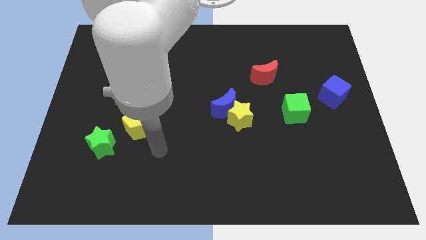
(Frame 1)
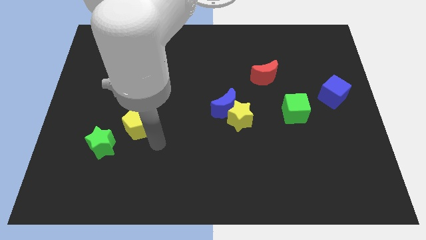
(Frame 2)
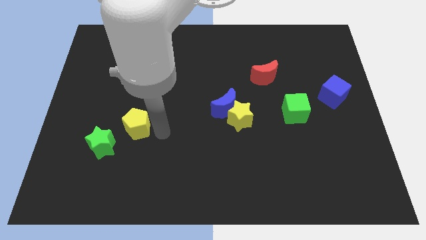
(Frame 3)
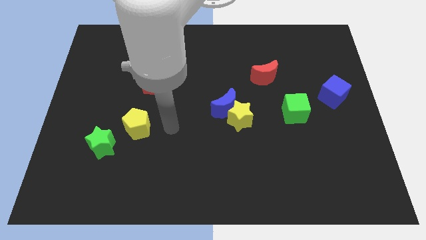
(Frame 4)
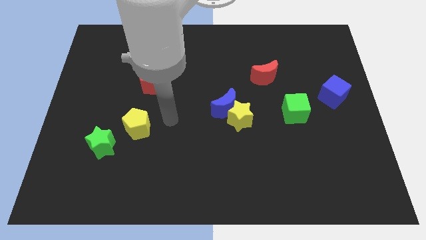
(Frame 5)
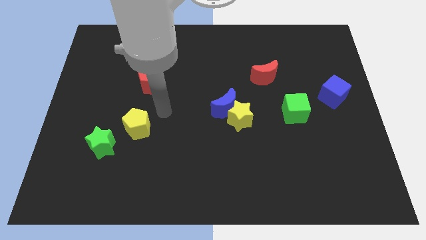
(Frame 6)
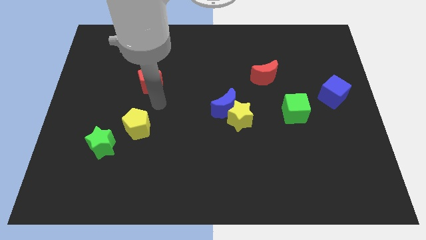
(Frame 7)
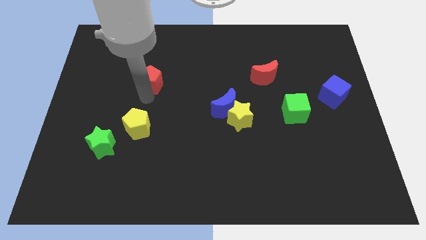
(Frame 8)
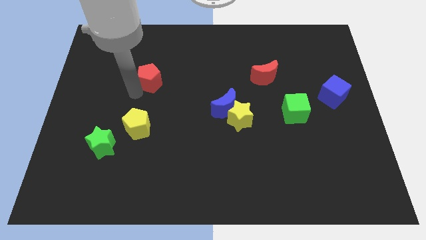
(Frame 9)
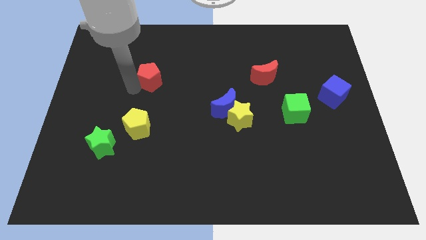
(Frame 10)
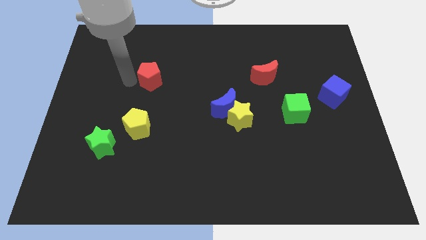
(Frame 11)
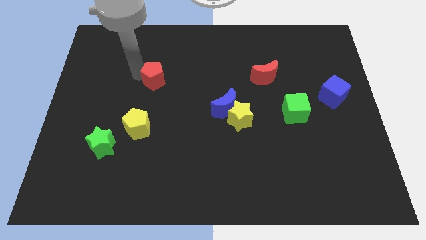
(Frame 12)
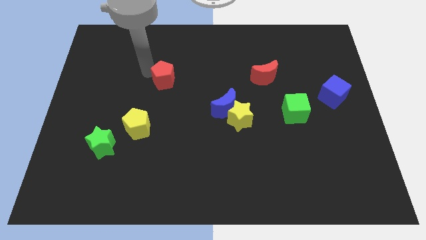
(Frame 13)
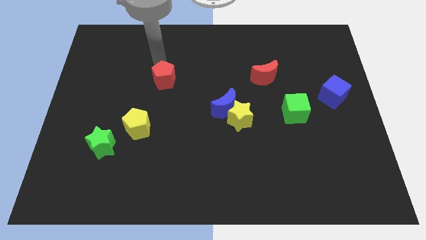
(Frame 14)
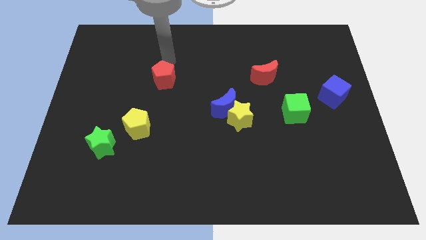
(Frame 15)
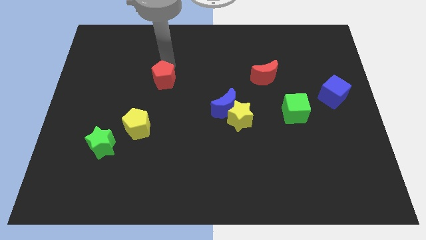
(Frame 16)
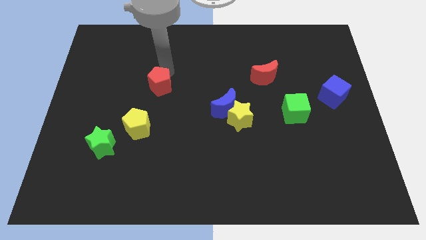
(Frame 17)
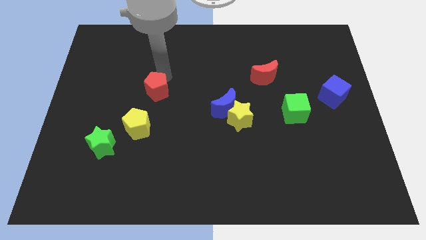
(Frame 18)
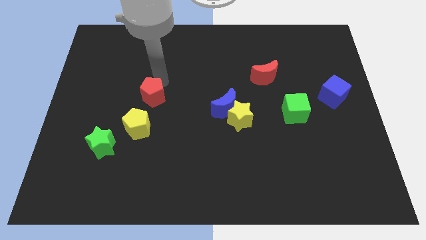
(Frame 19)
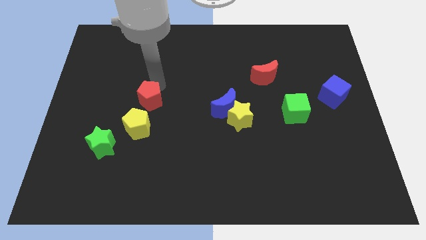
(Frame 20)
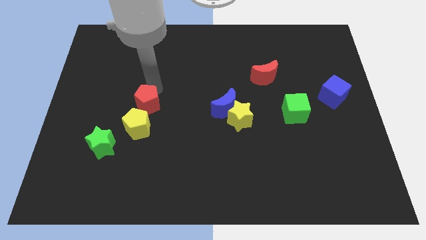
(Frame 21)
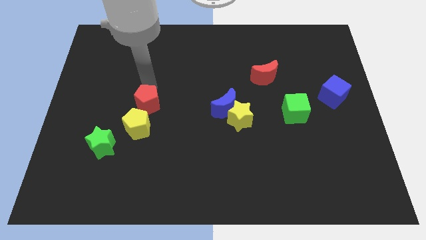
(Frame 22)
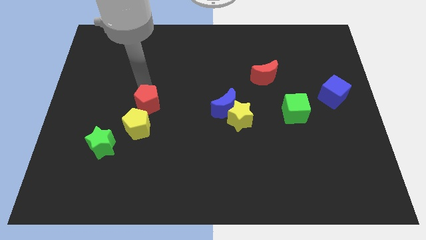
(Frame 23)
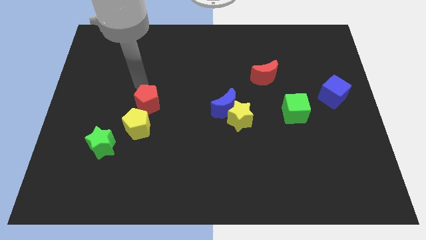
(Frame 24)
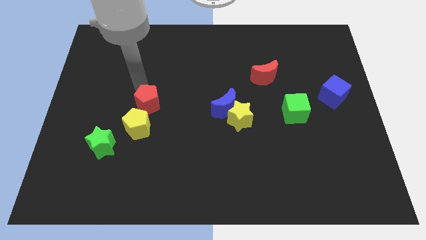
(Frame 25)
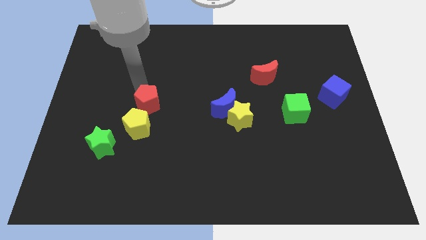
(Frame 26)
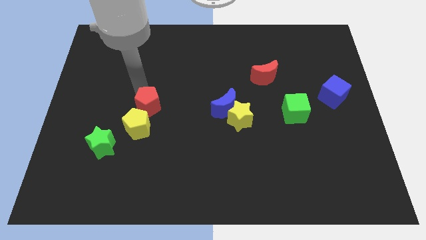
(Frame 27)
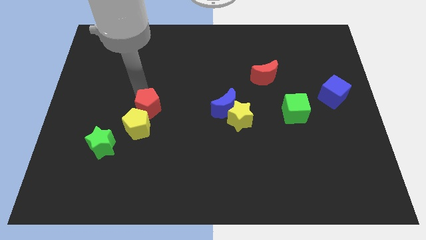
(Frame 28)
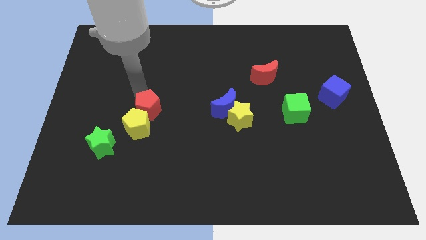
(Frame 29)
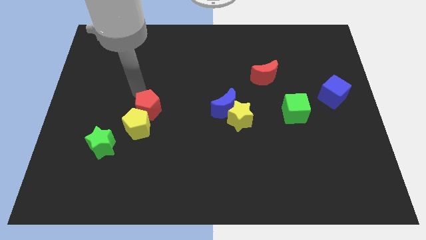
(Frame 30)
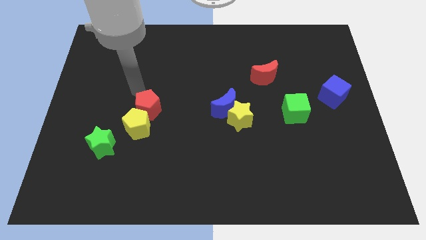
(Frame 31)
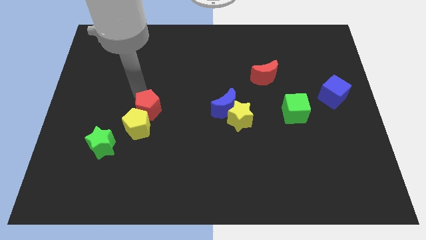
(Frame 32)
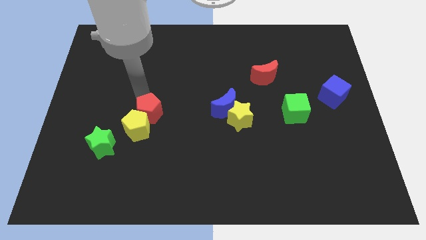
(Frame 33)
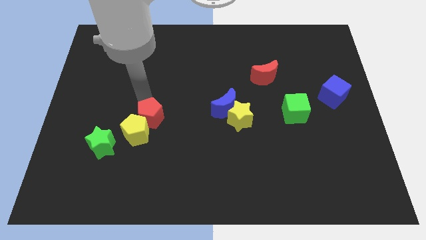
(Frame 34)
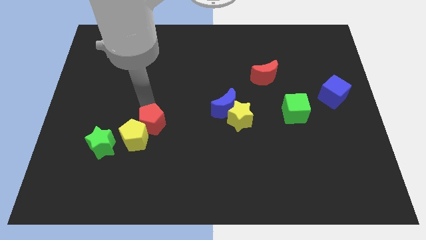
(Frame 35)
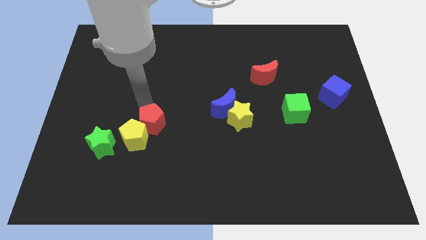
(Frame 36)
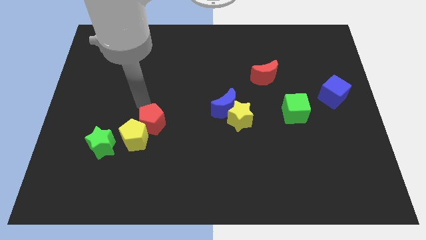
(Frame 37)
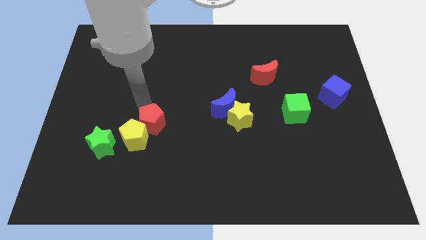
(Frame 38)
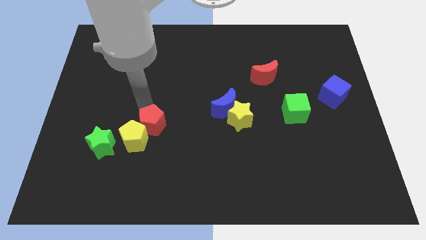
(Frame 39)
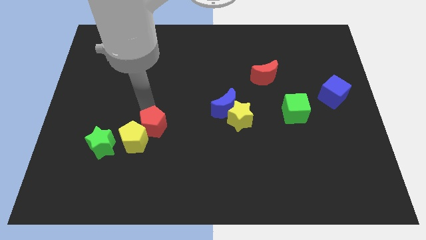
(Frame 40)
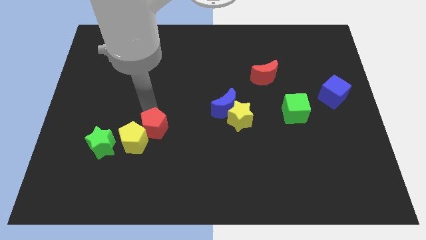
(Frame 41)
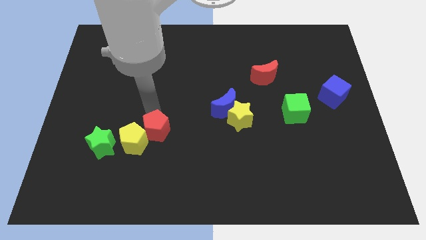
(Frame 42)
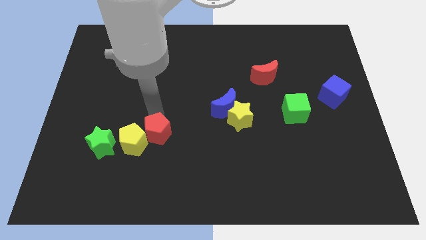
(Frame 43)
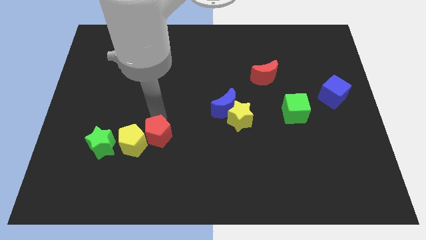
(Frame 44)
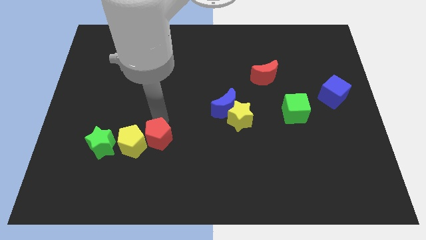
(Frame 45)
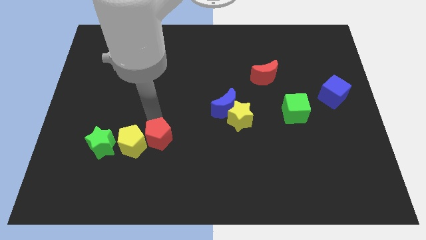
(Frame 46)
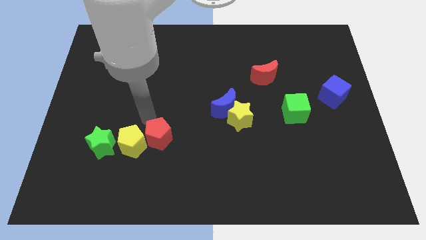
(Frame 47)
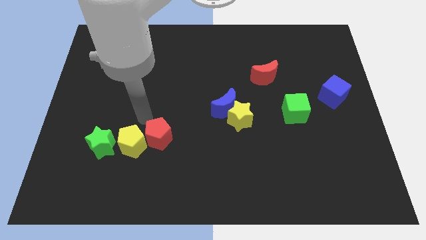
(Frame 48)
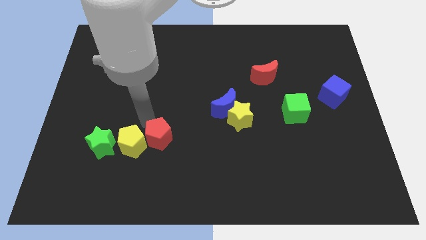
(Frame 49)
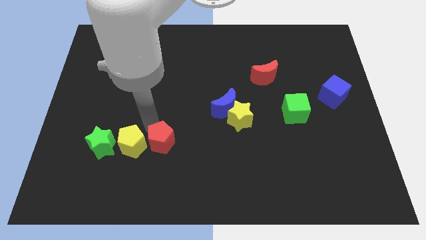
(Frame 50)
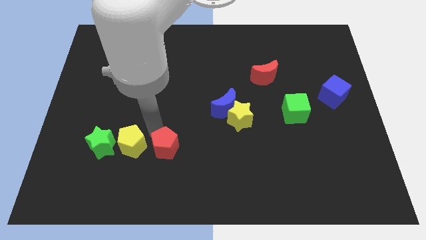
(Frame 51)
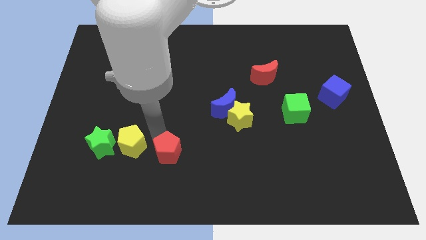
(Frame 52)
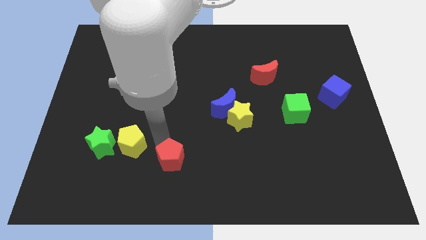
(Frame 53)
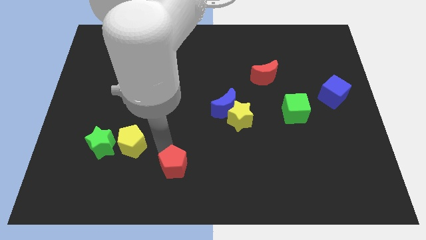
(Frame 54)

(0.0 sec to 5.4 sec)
move the red pentagon to the bottom side

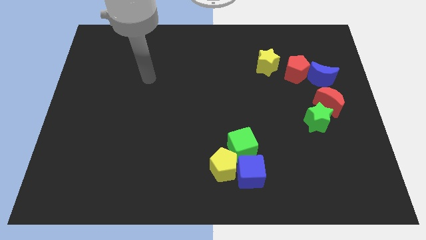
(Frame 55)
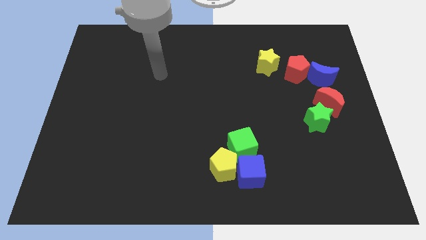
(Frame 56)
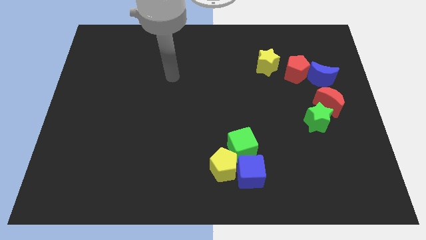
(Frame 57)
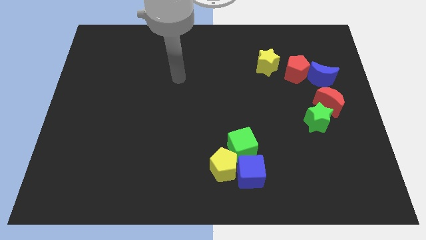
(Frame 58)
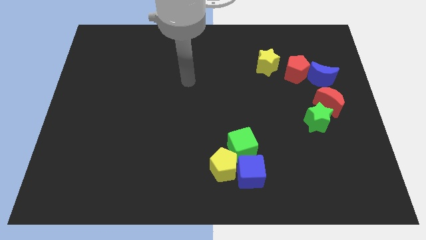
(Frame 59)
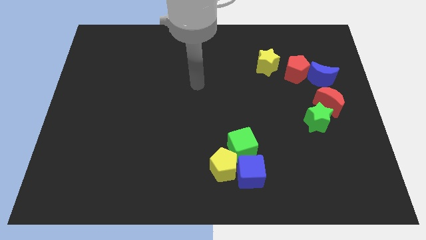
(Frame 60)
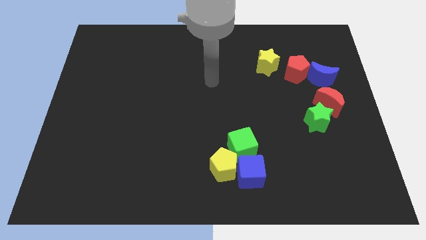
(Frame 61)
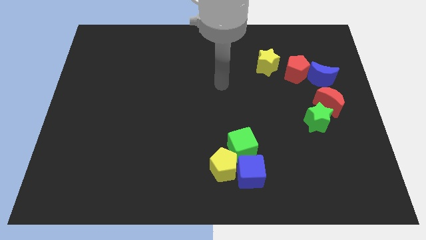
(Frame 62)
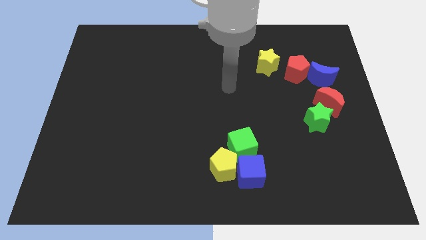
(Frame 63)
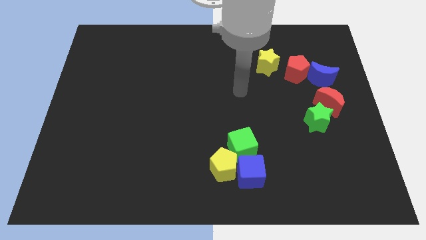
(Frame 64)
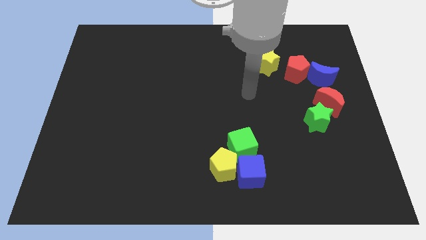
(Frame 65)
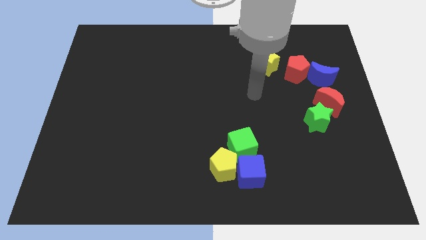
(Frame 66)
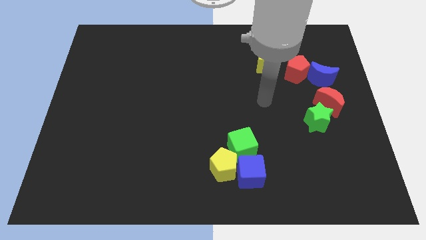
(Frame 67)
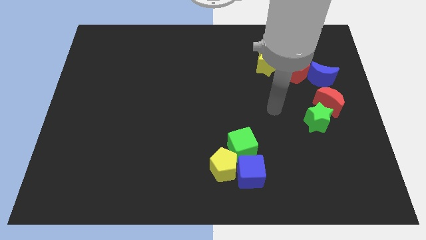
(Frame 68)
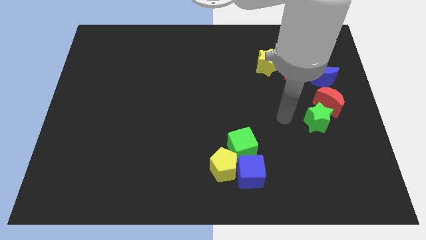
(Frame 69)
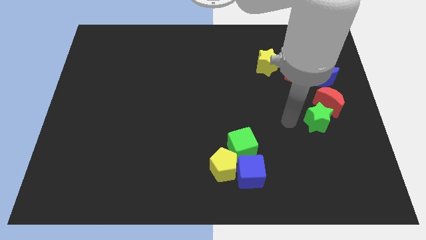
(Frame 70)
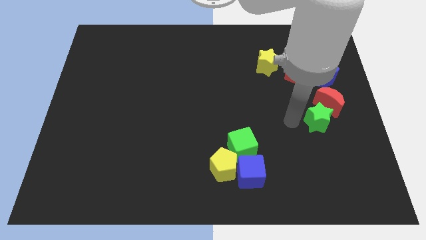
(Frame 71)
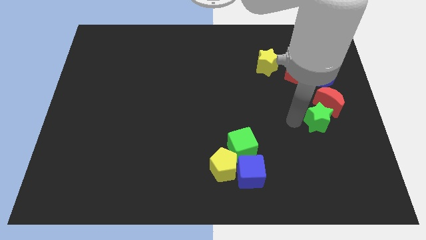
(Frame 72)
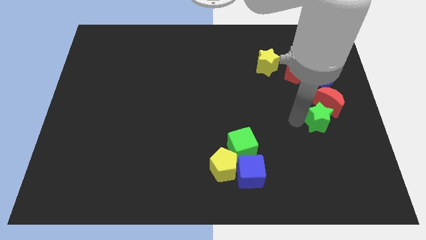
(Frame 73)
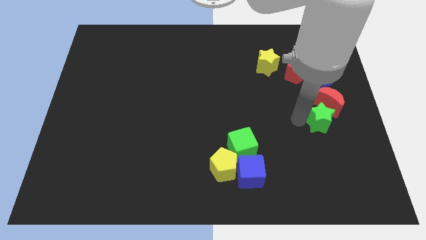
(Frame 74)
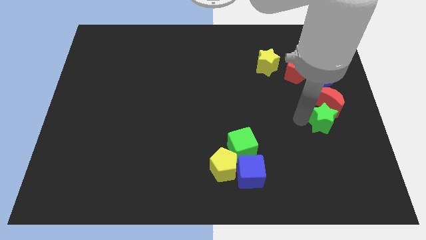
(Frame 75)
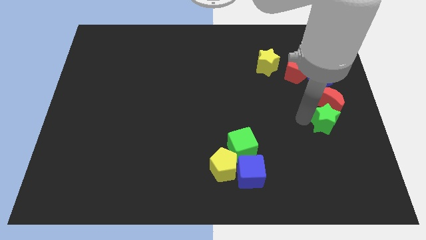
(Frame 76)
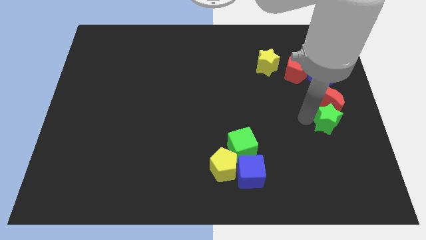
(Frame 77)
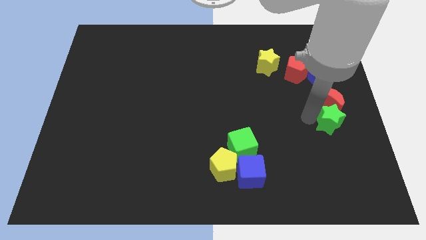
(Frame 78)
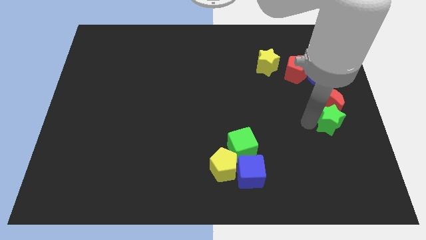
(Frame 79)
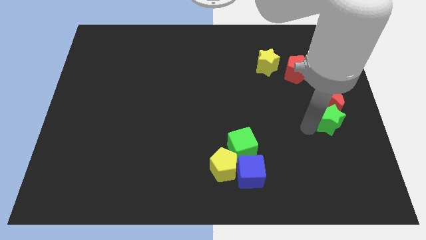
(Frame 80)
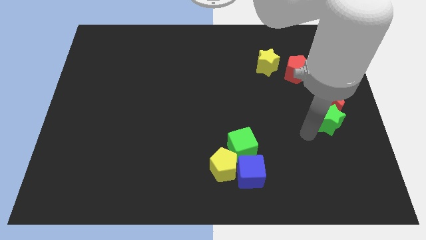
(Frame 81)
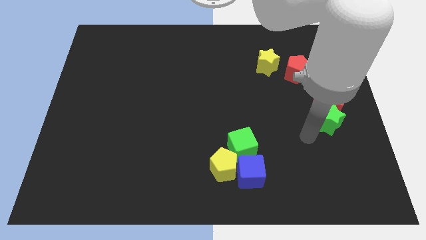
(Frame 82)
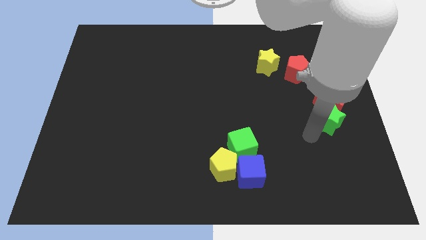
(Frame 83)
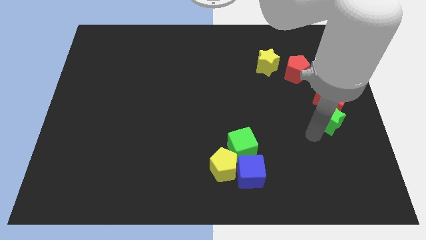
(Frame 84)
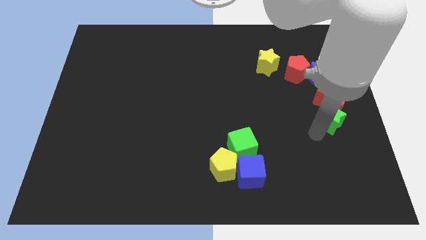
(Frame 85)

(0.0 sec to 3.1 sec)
put the green star to the right side
